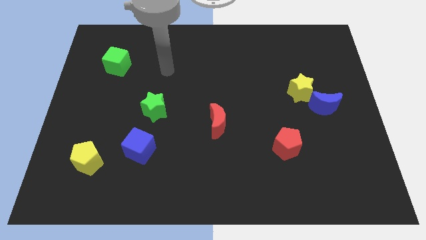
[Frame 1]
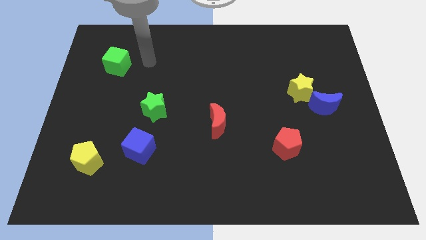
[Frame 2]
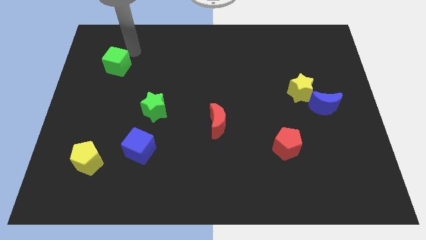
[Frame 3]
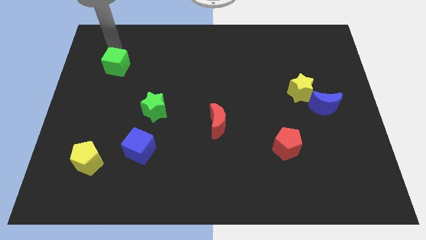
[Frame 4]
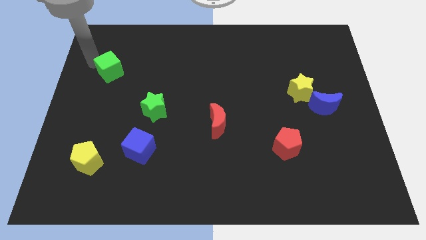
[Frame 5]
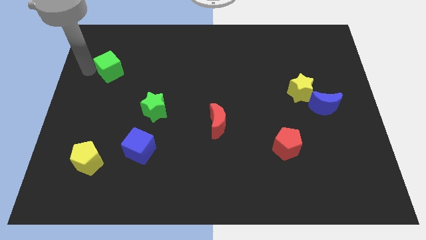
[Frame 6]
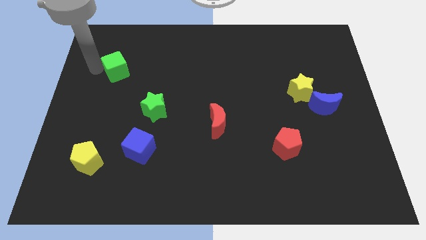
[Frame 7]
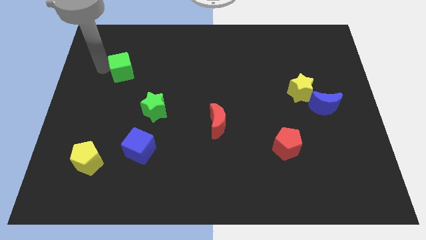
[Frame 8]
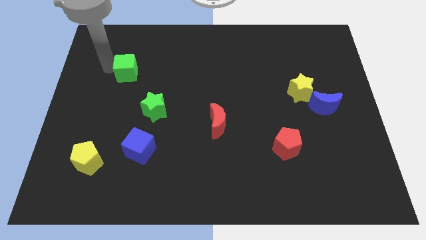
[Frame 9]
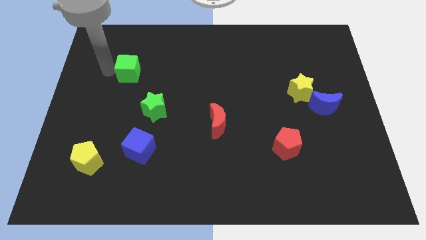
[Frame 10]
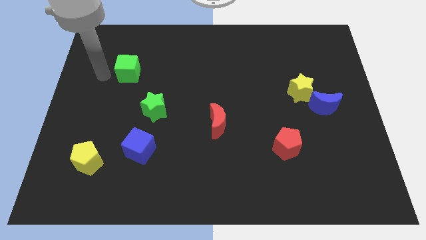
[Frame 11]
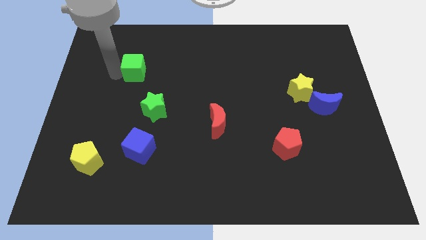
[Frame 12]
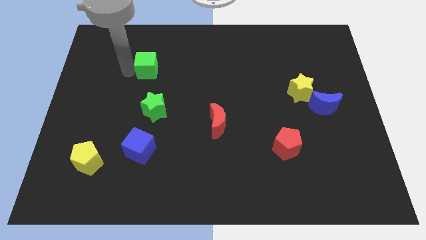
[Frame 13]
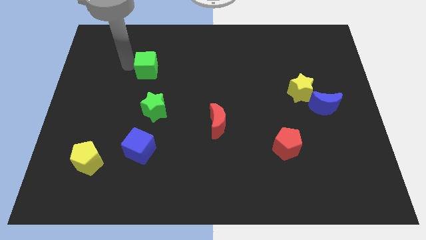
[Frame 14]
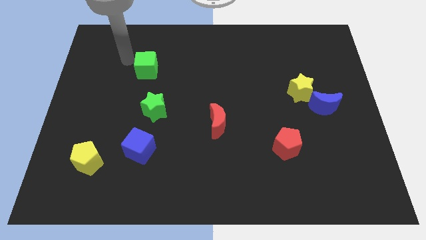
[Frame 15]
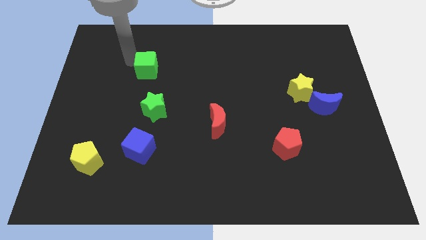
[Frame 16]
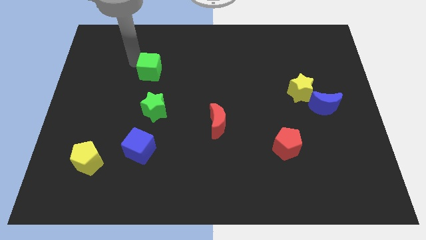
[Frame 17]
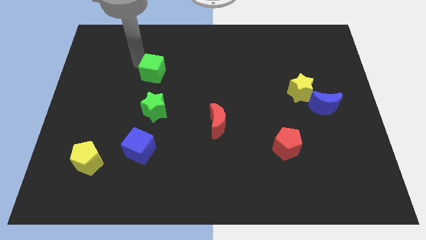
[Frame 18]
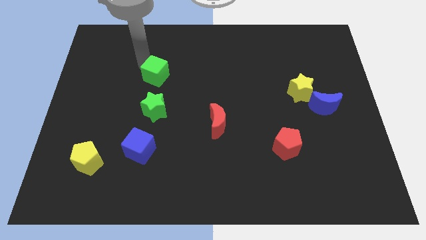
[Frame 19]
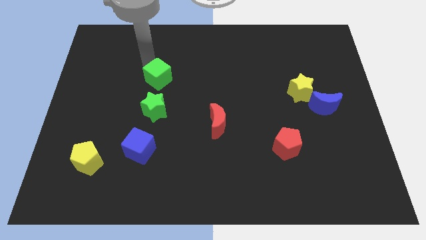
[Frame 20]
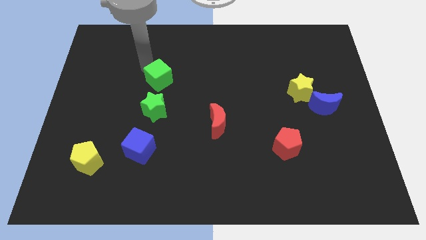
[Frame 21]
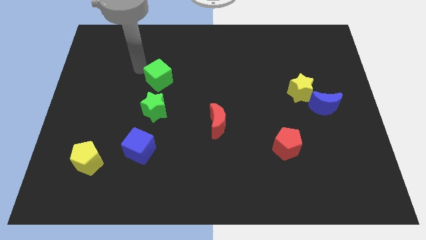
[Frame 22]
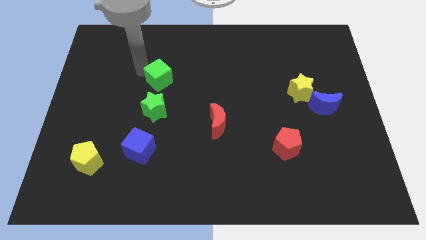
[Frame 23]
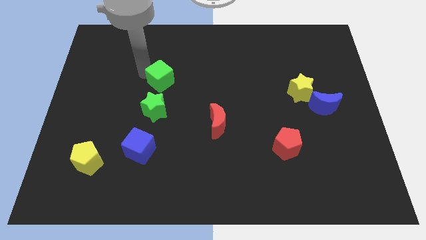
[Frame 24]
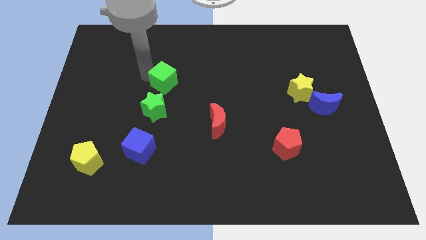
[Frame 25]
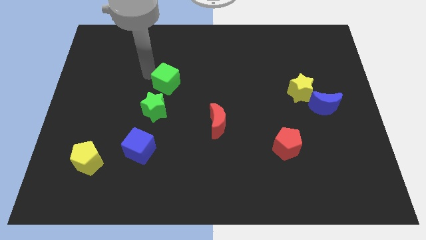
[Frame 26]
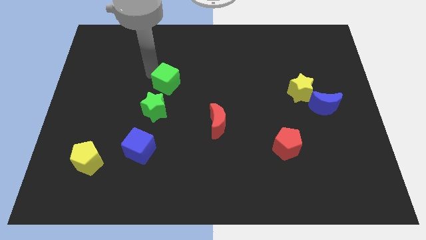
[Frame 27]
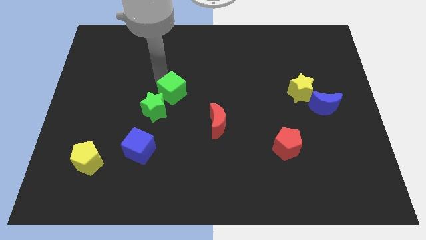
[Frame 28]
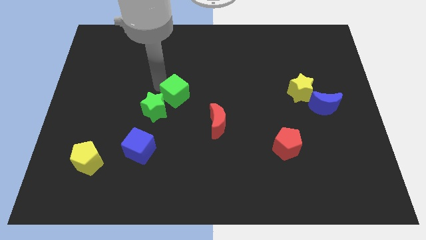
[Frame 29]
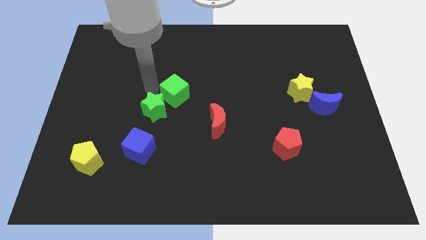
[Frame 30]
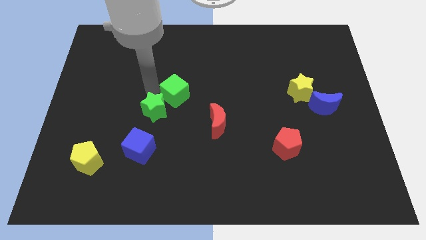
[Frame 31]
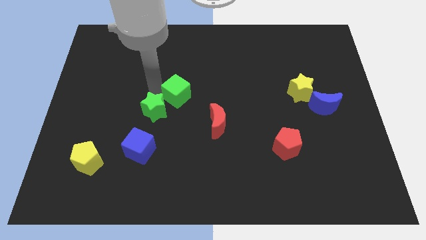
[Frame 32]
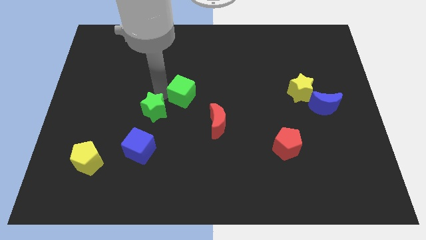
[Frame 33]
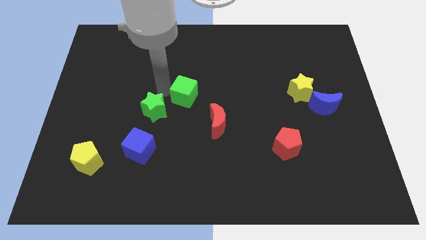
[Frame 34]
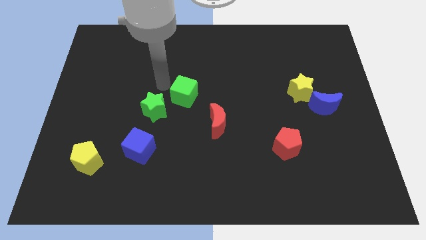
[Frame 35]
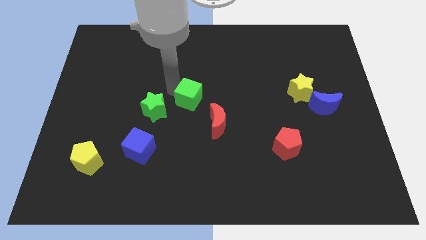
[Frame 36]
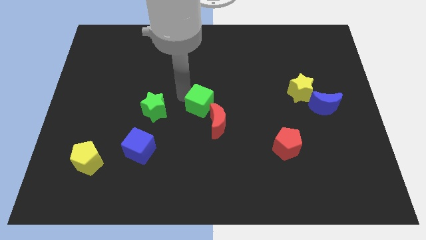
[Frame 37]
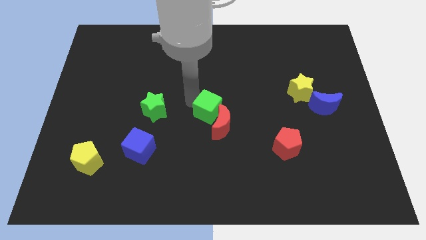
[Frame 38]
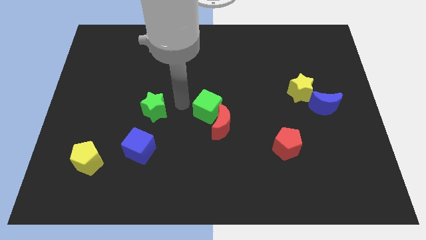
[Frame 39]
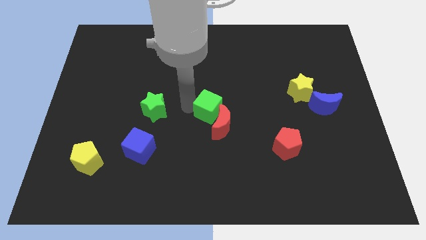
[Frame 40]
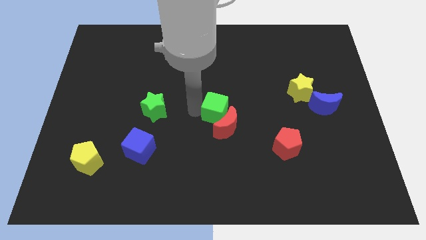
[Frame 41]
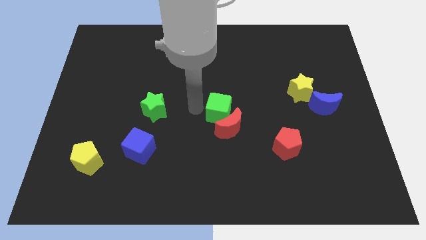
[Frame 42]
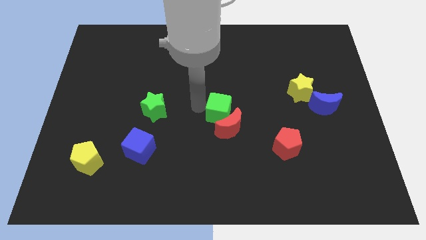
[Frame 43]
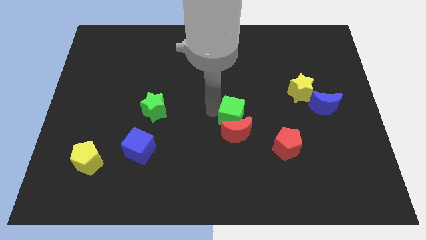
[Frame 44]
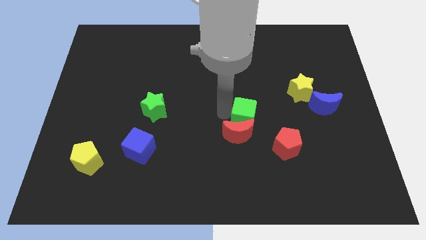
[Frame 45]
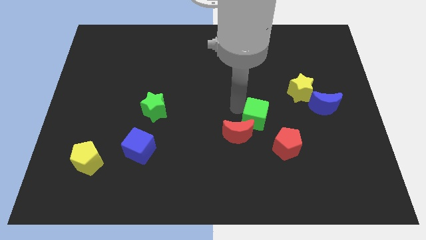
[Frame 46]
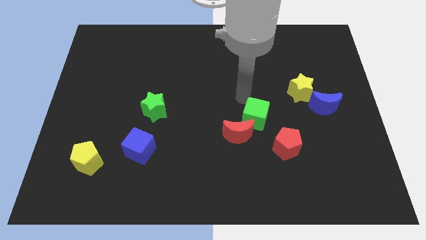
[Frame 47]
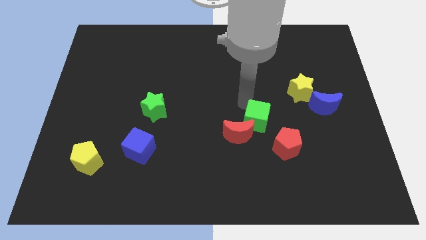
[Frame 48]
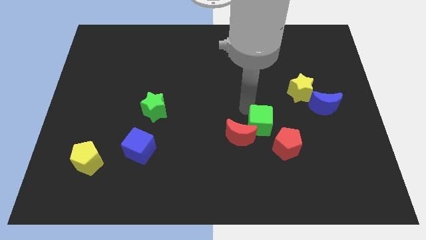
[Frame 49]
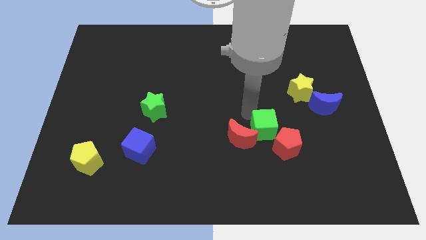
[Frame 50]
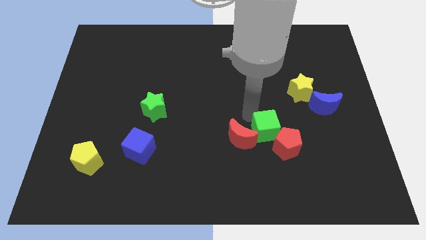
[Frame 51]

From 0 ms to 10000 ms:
move the green cube next to the red pentagon

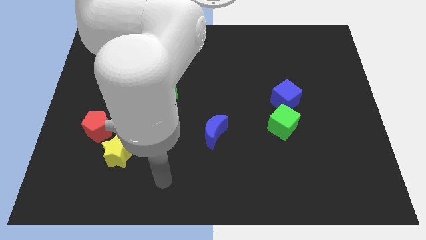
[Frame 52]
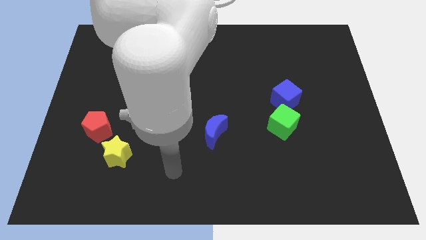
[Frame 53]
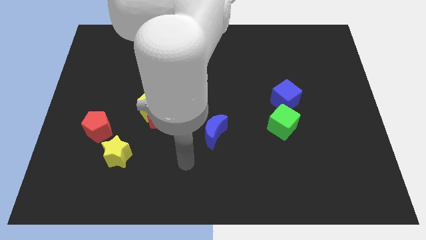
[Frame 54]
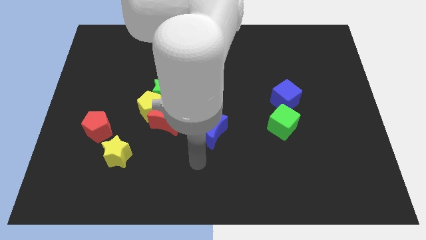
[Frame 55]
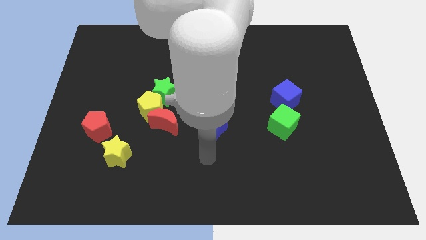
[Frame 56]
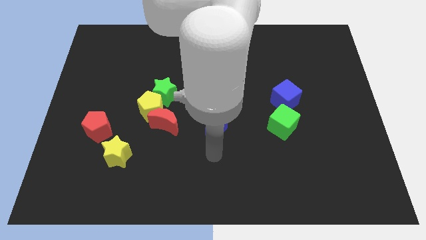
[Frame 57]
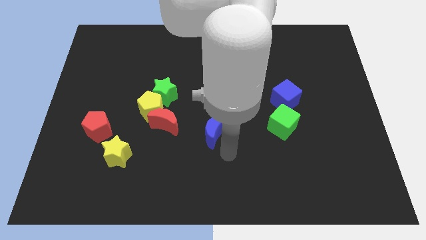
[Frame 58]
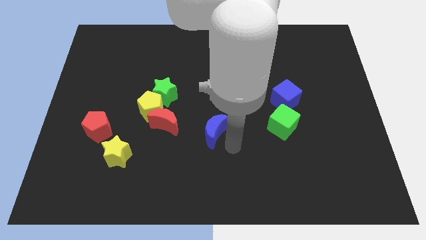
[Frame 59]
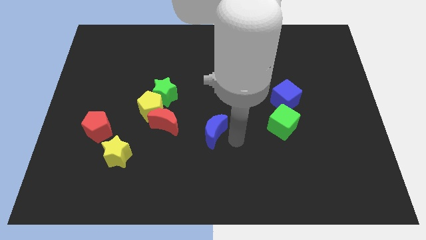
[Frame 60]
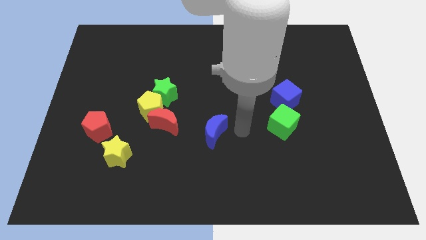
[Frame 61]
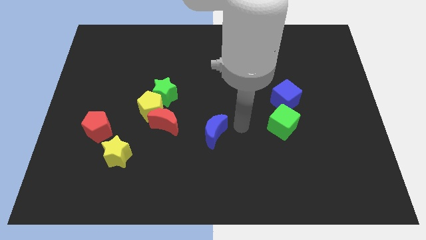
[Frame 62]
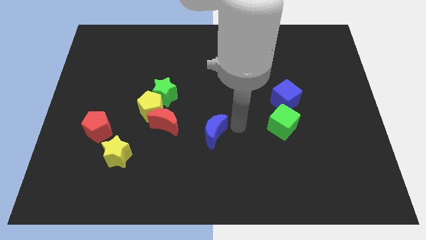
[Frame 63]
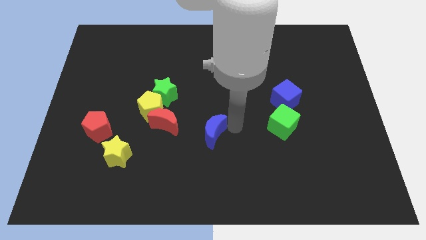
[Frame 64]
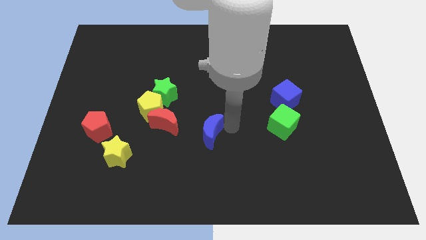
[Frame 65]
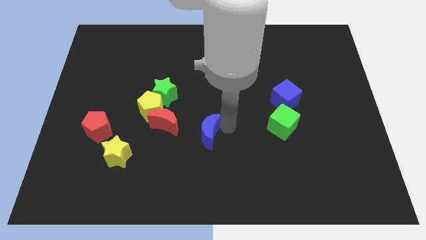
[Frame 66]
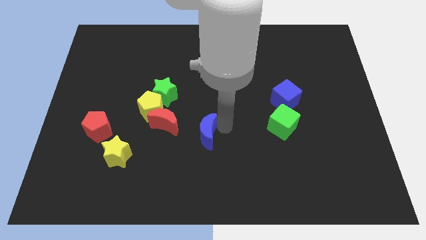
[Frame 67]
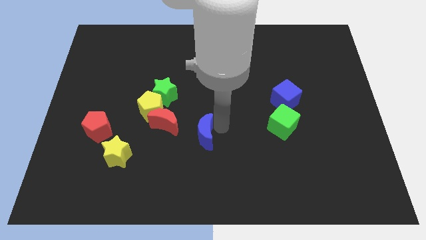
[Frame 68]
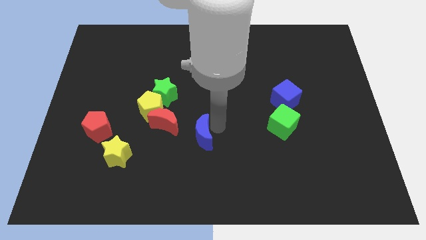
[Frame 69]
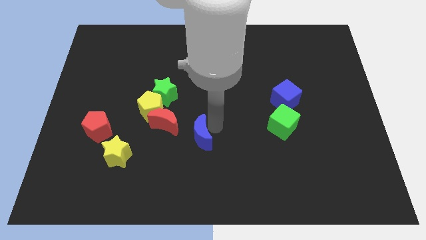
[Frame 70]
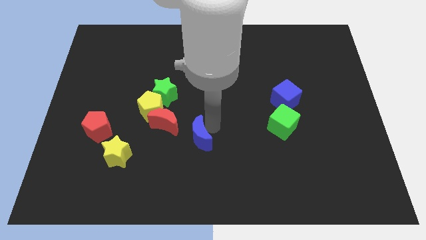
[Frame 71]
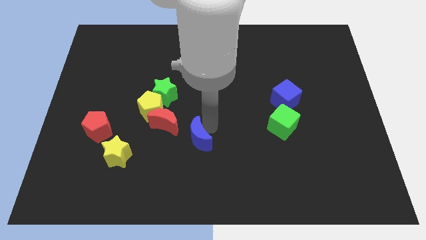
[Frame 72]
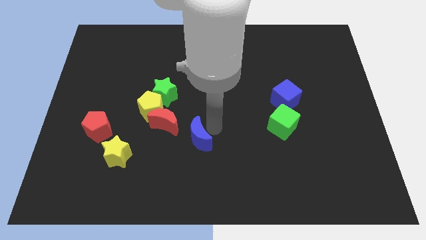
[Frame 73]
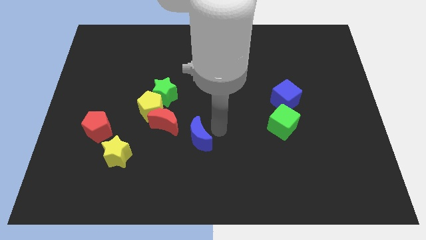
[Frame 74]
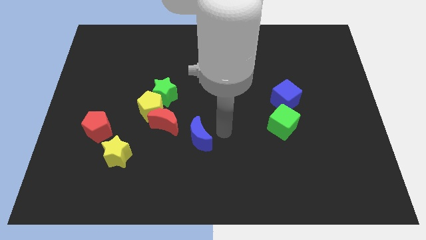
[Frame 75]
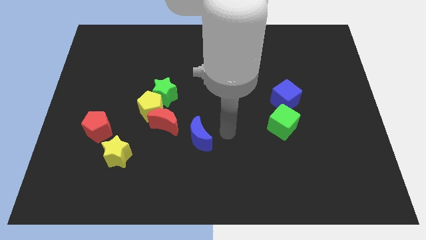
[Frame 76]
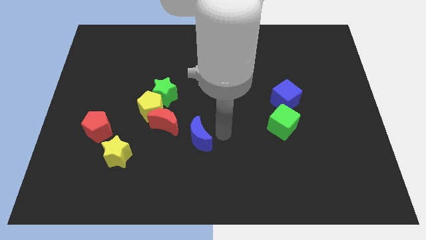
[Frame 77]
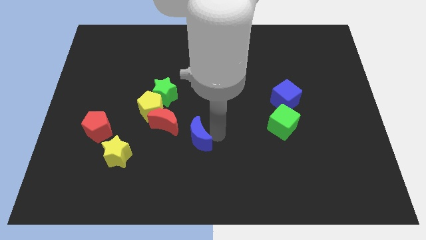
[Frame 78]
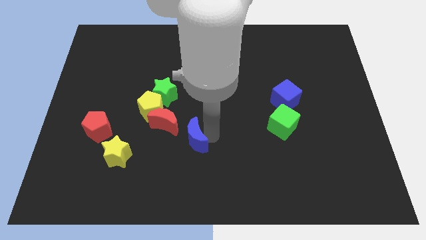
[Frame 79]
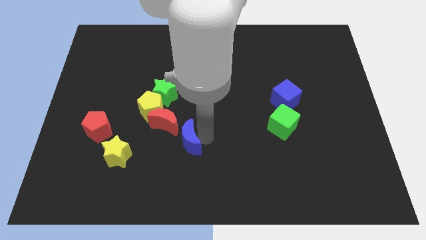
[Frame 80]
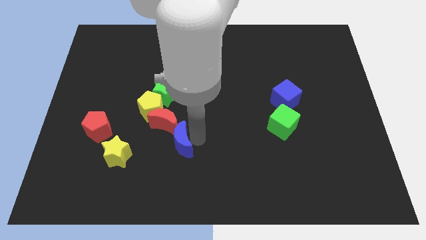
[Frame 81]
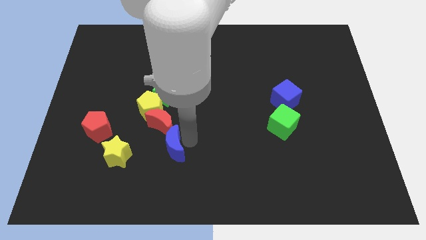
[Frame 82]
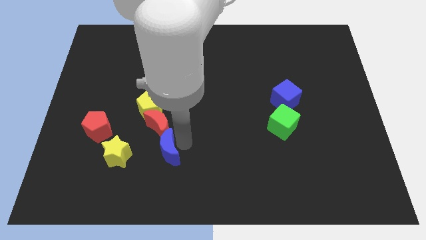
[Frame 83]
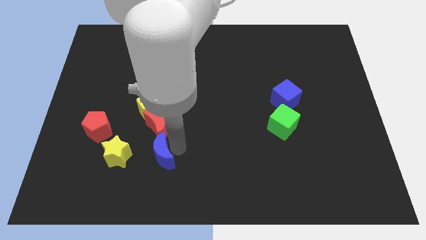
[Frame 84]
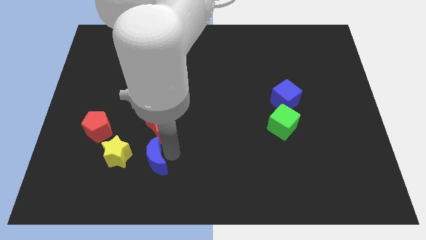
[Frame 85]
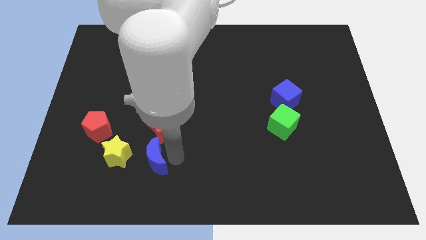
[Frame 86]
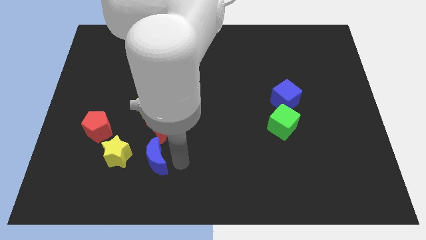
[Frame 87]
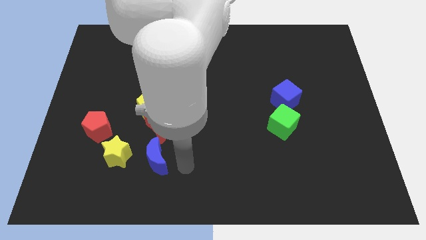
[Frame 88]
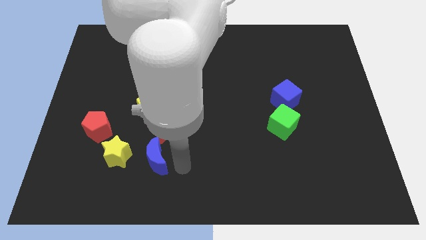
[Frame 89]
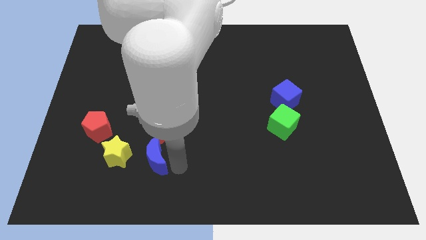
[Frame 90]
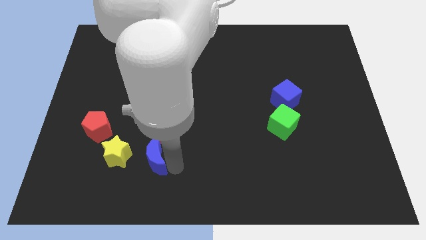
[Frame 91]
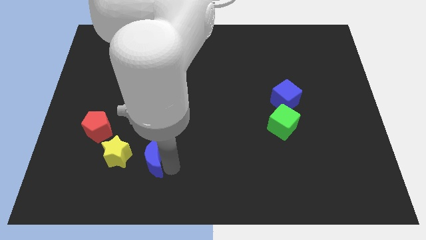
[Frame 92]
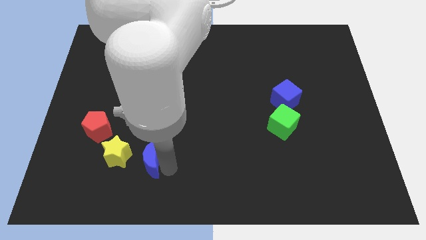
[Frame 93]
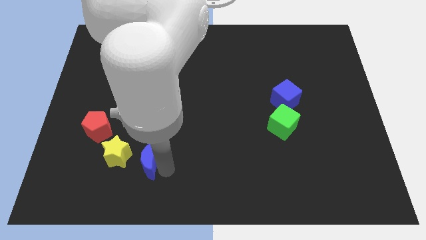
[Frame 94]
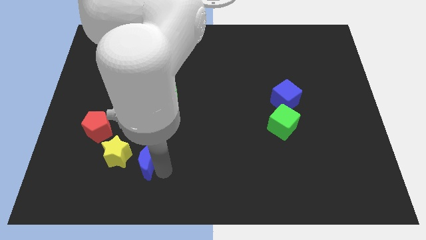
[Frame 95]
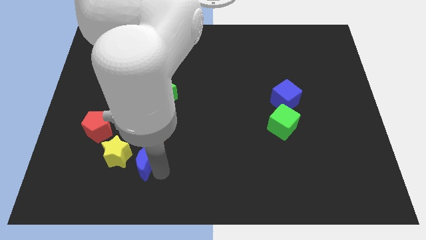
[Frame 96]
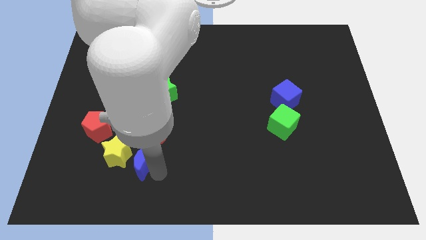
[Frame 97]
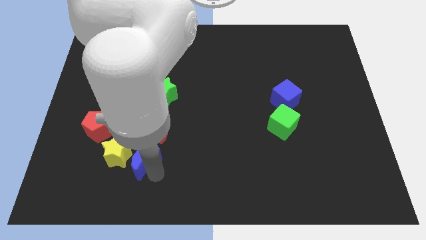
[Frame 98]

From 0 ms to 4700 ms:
put the blue moon close to the yellow star
